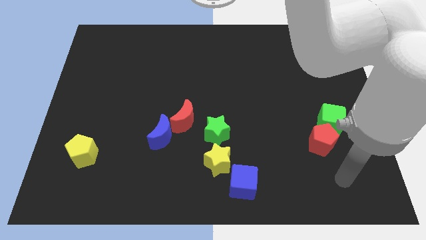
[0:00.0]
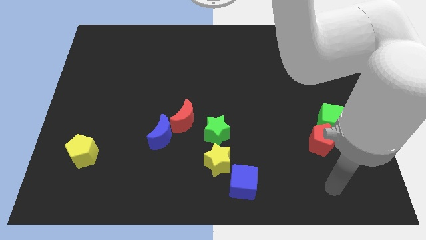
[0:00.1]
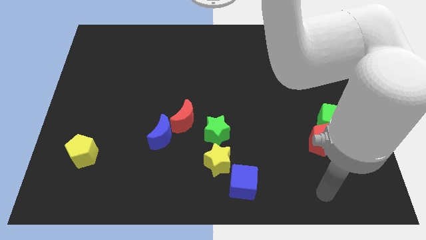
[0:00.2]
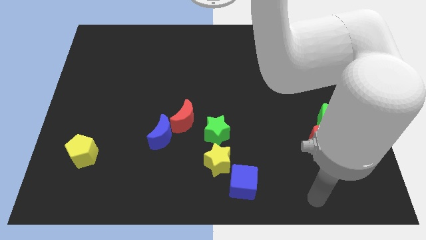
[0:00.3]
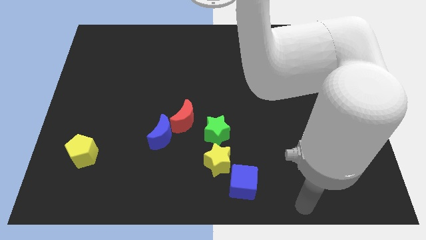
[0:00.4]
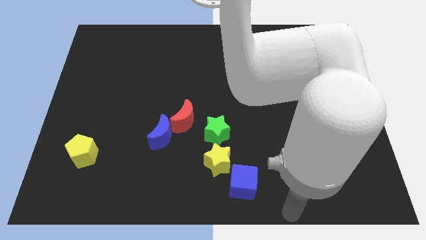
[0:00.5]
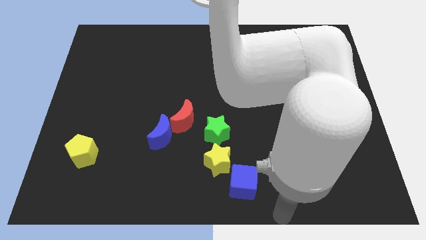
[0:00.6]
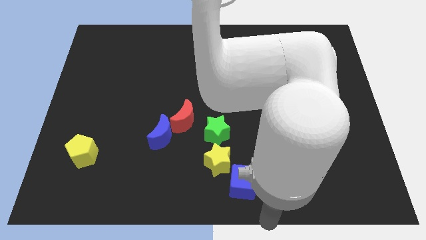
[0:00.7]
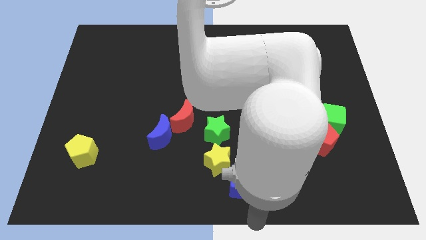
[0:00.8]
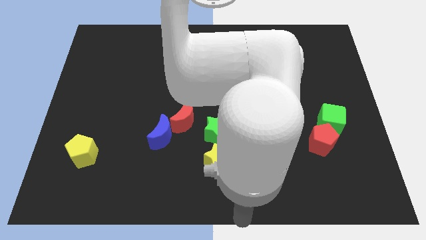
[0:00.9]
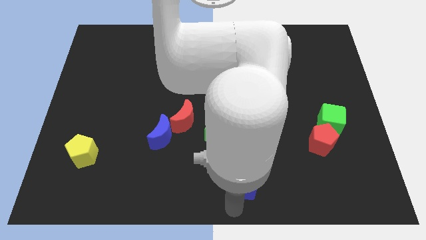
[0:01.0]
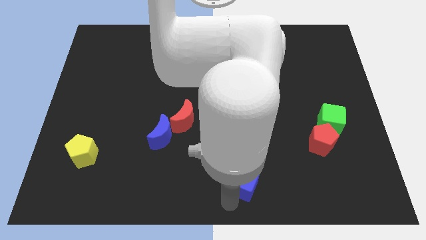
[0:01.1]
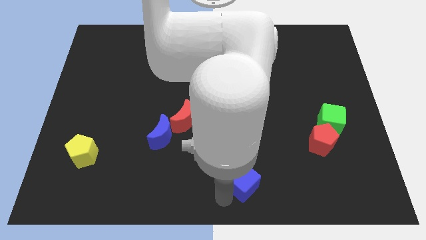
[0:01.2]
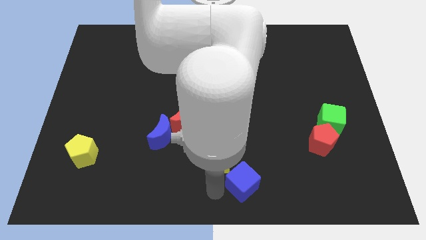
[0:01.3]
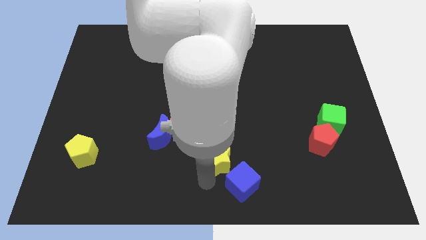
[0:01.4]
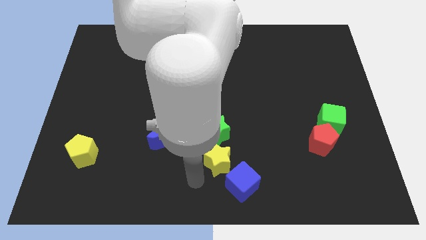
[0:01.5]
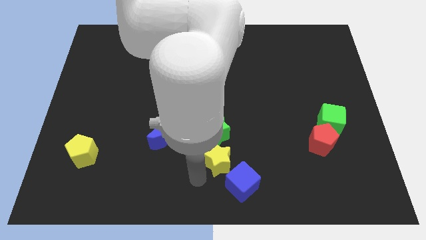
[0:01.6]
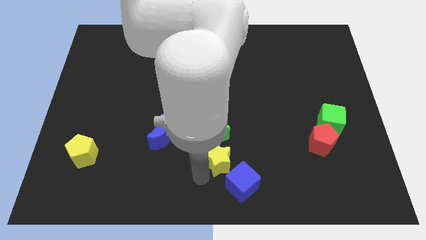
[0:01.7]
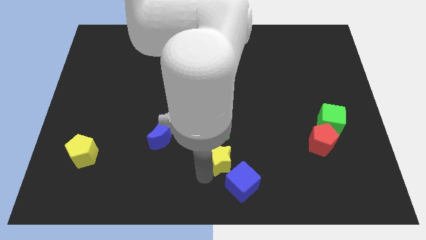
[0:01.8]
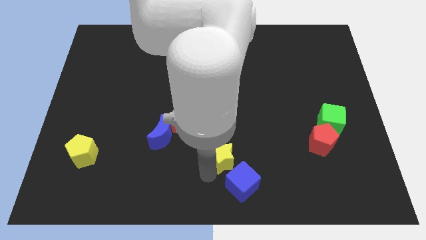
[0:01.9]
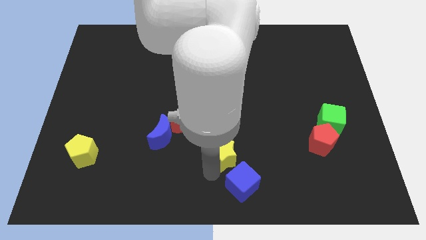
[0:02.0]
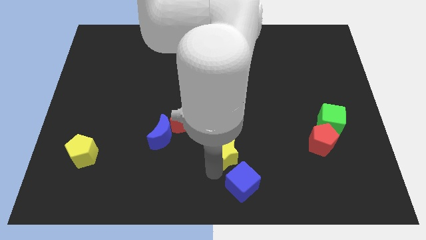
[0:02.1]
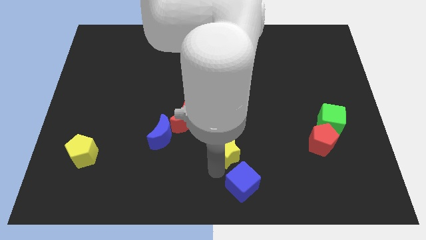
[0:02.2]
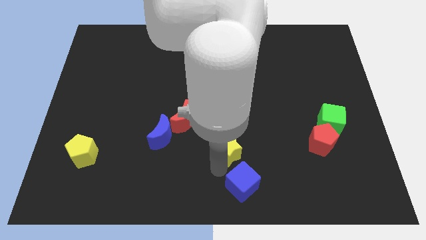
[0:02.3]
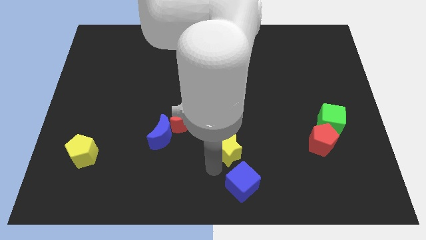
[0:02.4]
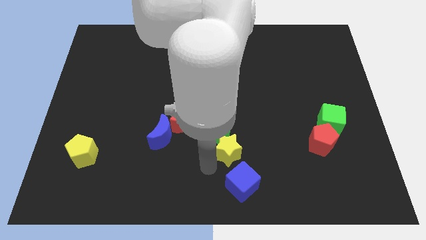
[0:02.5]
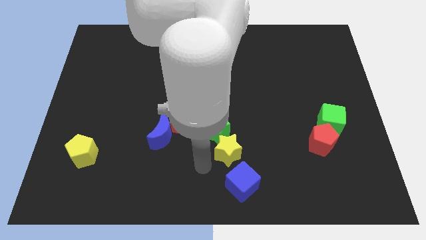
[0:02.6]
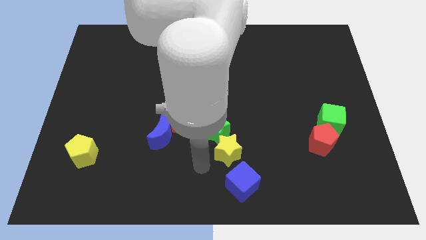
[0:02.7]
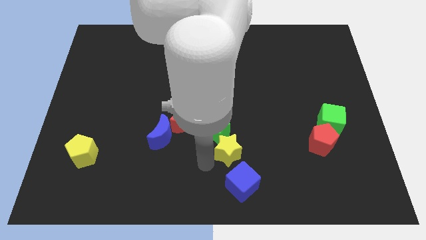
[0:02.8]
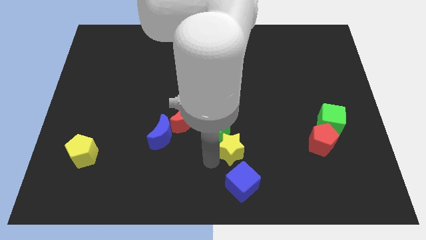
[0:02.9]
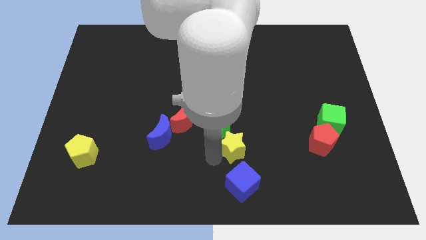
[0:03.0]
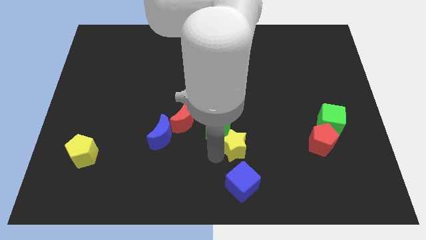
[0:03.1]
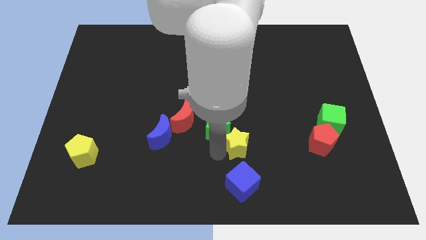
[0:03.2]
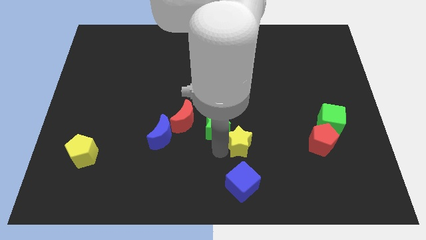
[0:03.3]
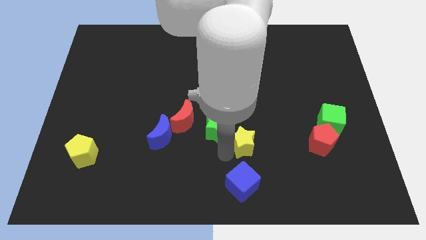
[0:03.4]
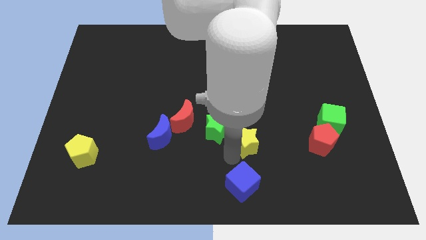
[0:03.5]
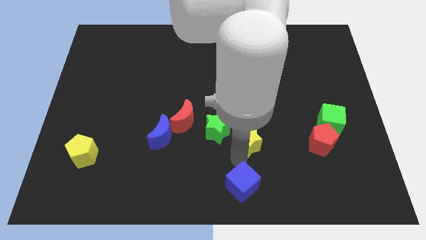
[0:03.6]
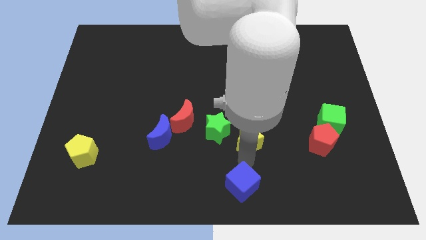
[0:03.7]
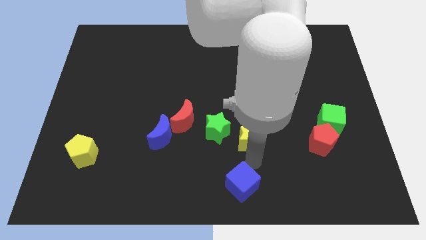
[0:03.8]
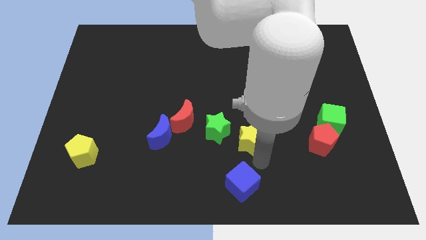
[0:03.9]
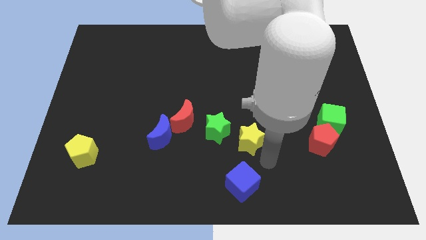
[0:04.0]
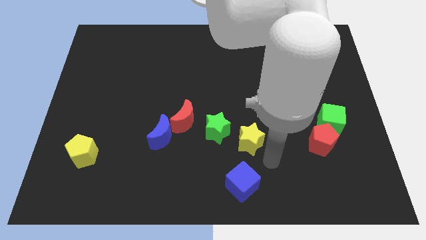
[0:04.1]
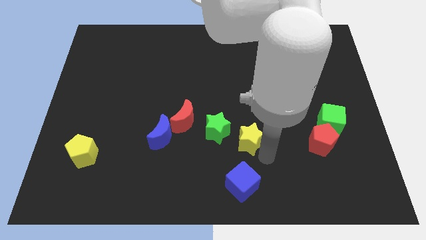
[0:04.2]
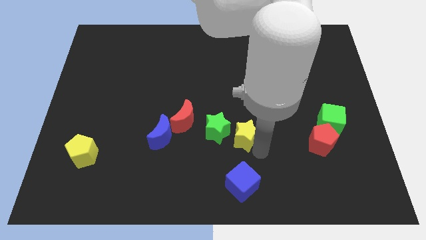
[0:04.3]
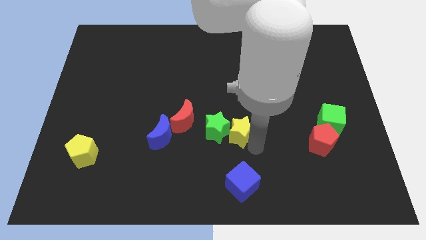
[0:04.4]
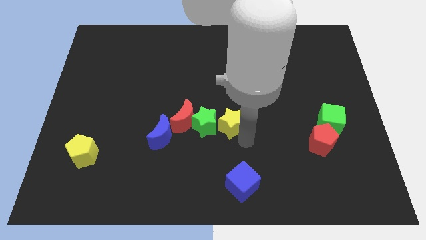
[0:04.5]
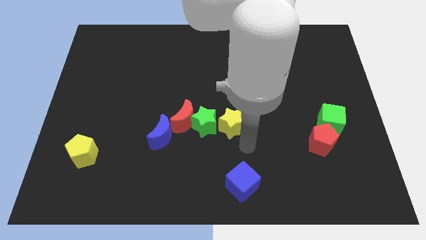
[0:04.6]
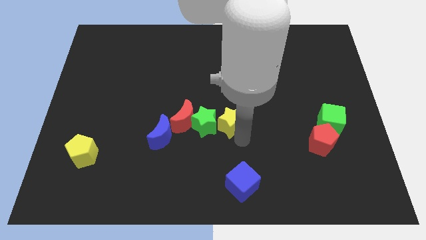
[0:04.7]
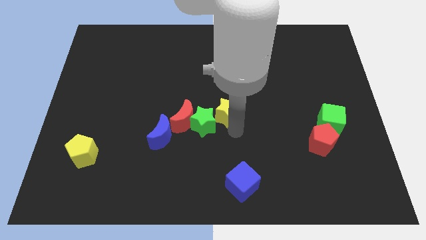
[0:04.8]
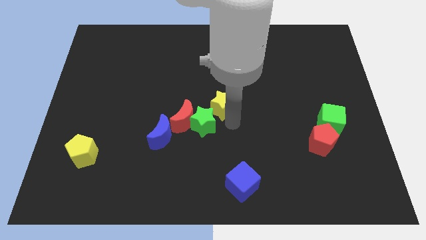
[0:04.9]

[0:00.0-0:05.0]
put the yellow star to the top of the green star

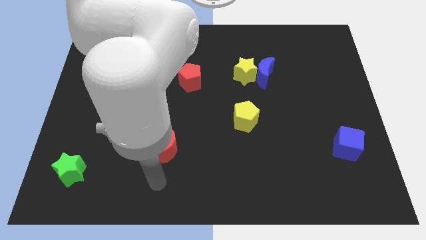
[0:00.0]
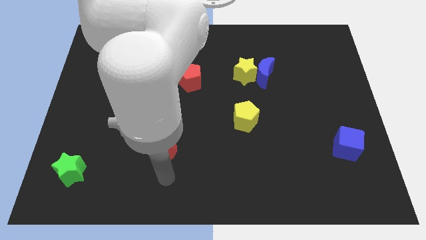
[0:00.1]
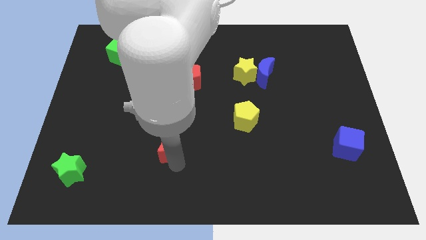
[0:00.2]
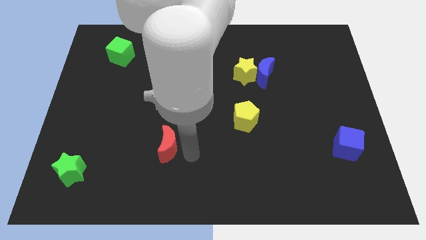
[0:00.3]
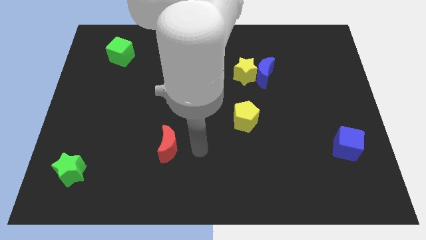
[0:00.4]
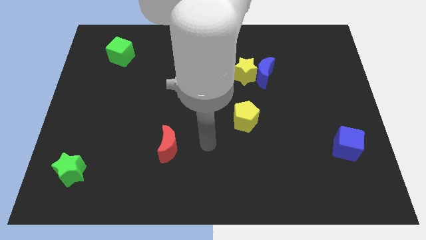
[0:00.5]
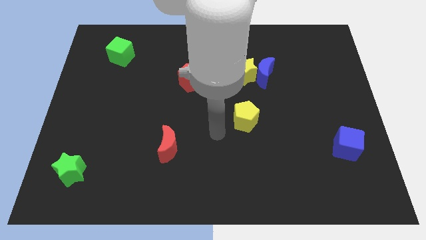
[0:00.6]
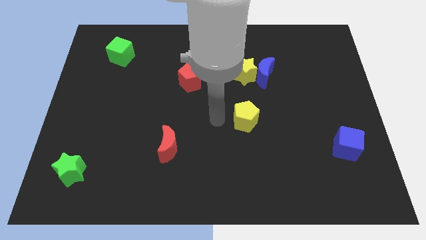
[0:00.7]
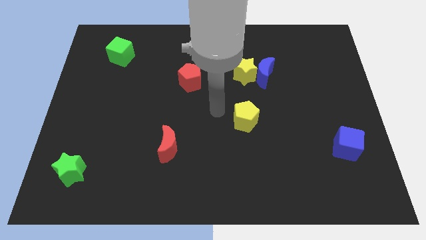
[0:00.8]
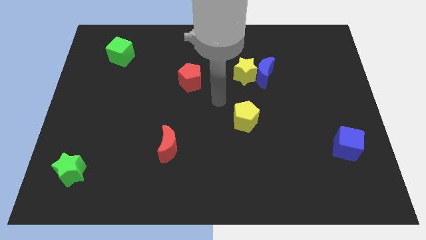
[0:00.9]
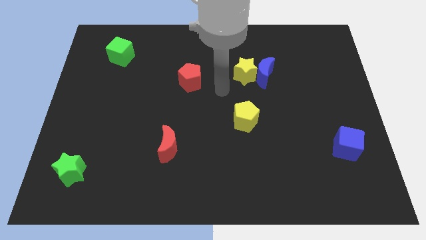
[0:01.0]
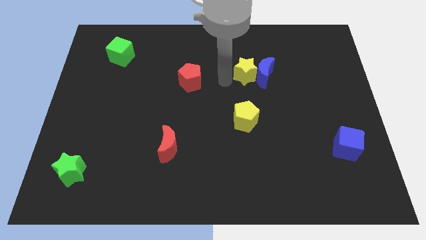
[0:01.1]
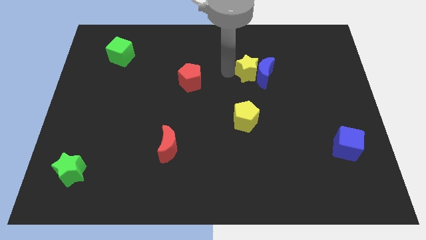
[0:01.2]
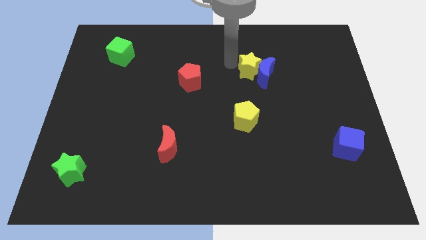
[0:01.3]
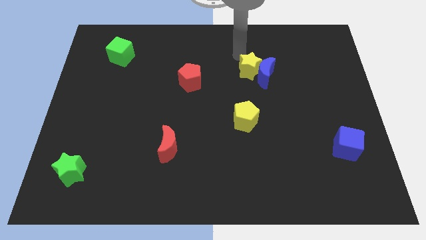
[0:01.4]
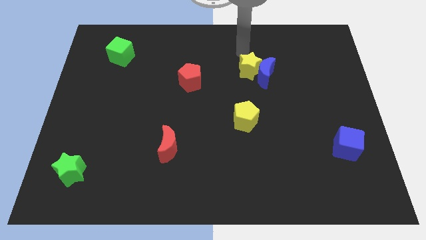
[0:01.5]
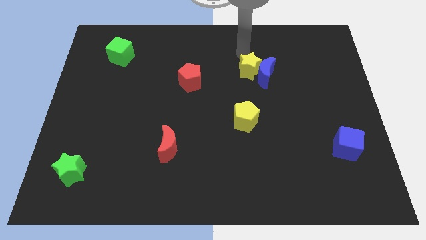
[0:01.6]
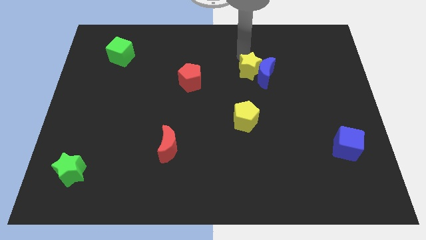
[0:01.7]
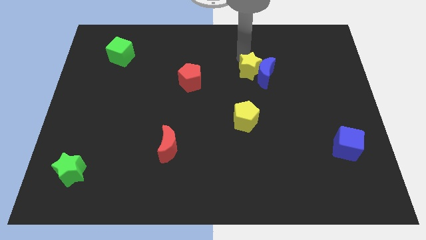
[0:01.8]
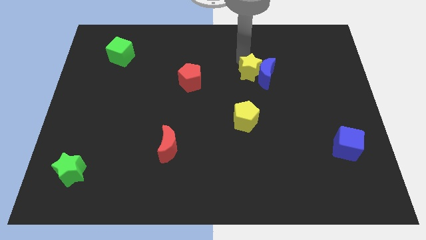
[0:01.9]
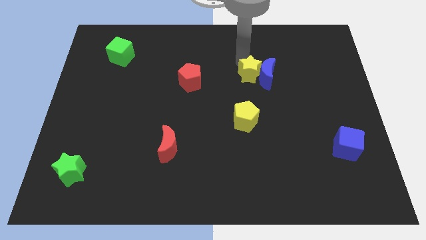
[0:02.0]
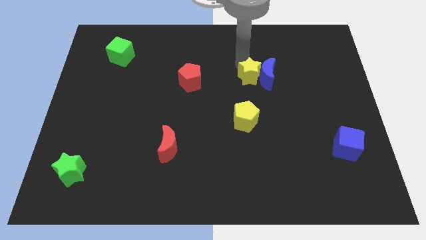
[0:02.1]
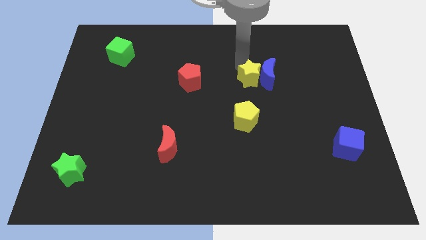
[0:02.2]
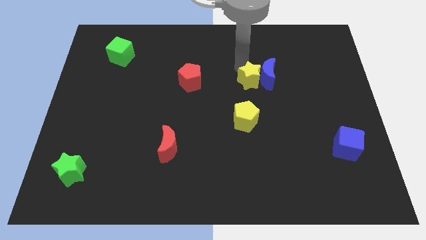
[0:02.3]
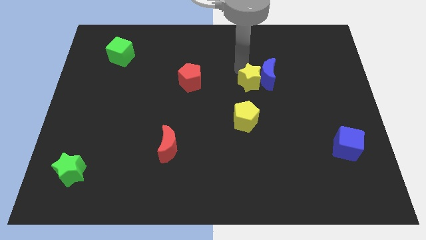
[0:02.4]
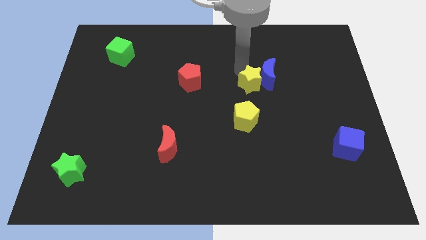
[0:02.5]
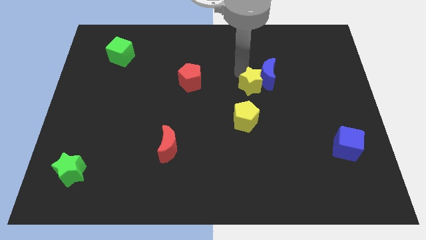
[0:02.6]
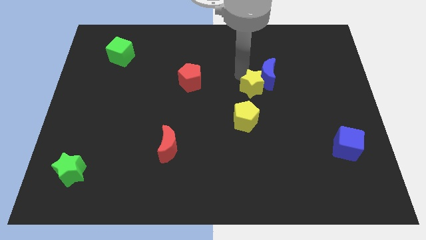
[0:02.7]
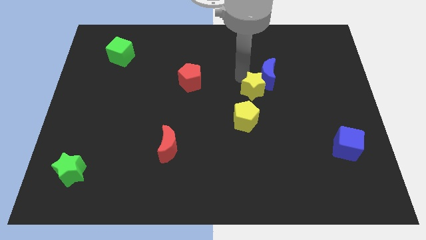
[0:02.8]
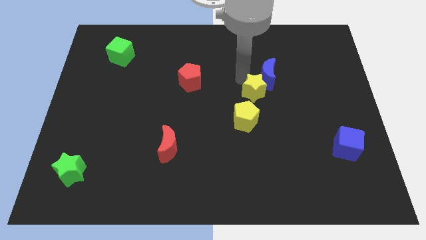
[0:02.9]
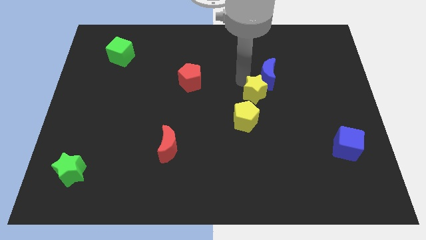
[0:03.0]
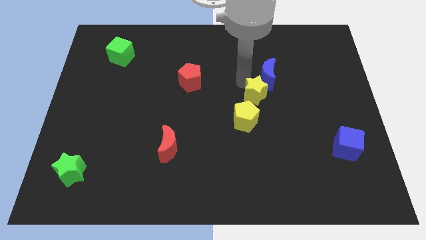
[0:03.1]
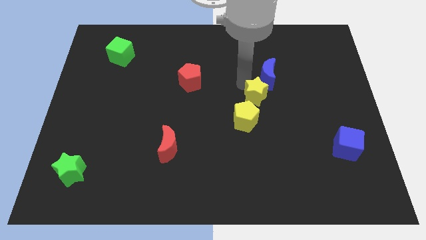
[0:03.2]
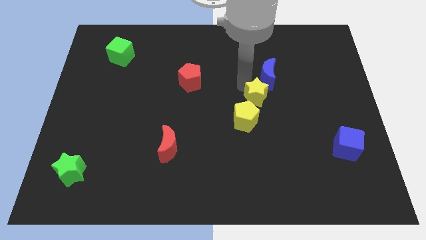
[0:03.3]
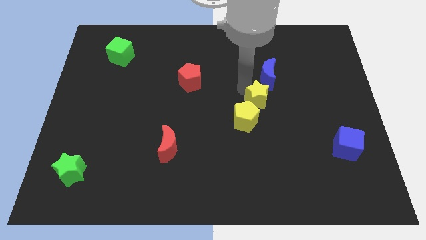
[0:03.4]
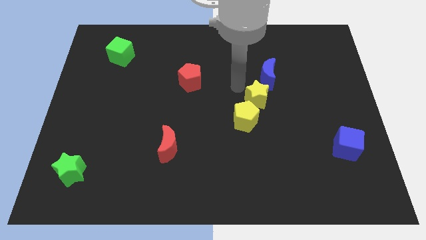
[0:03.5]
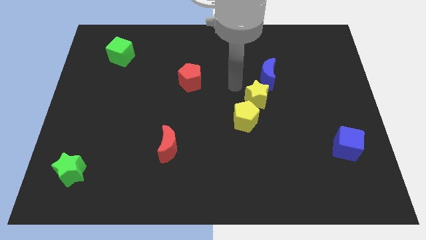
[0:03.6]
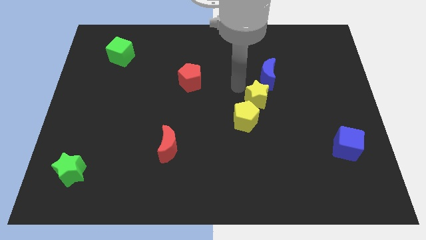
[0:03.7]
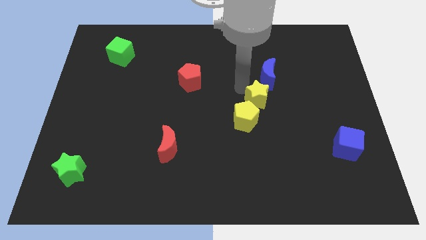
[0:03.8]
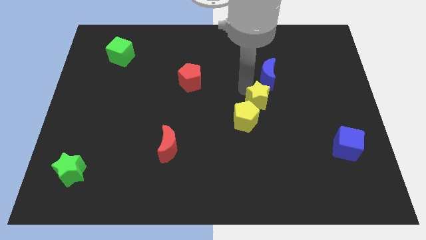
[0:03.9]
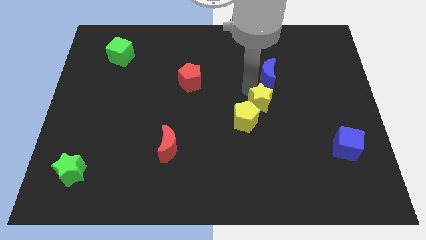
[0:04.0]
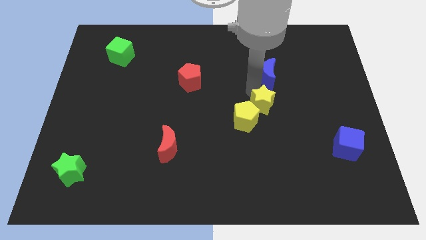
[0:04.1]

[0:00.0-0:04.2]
move the yellow star just right of the yellow pentagon
